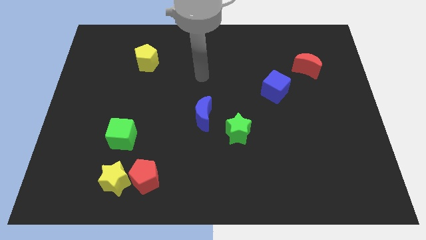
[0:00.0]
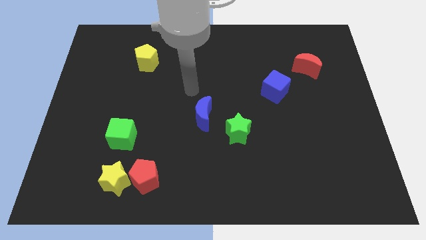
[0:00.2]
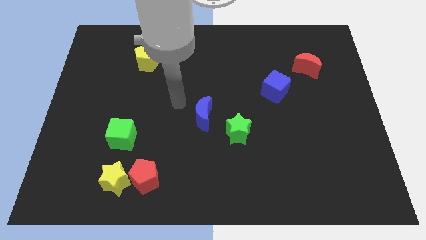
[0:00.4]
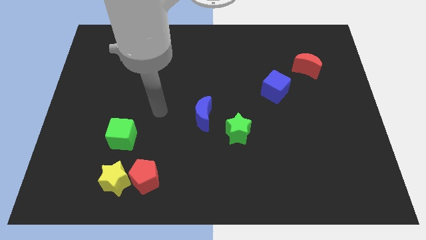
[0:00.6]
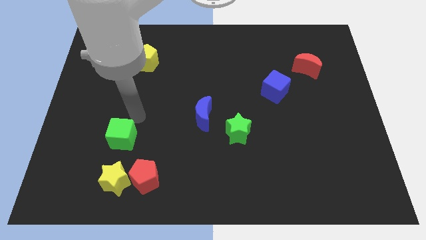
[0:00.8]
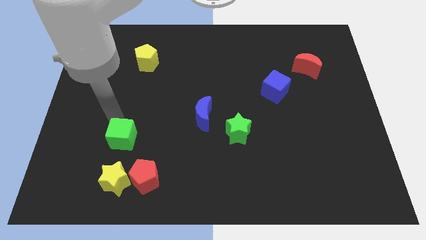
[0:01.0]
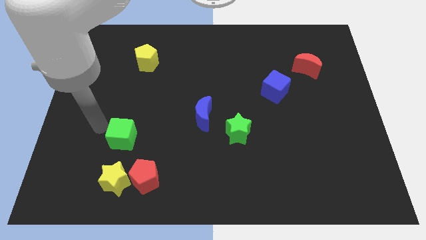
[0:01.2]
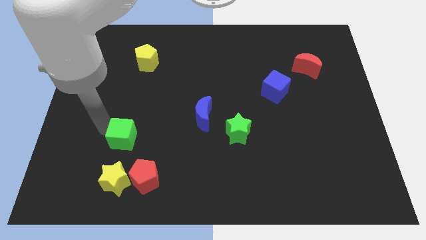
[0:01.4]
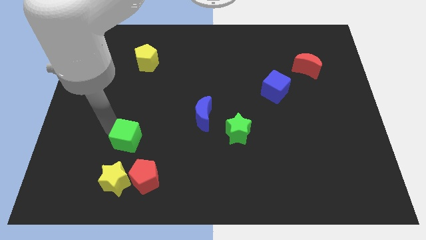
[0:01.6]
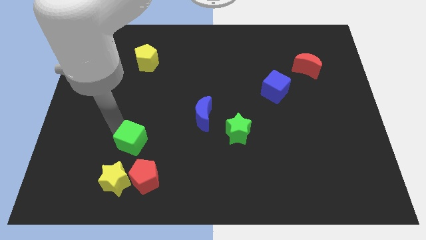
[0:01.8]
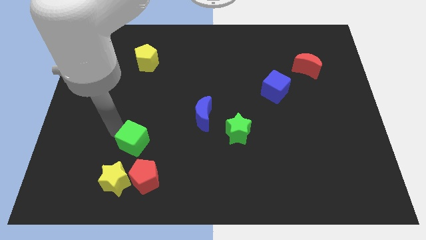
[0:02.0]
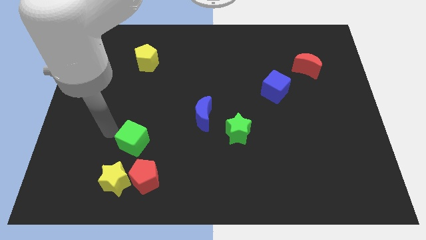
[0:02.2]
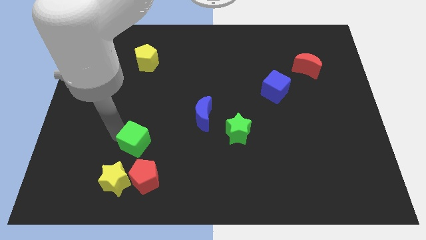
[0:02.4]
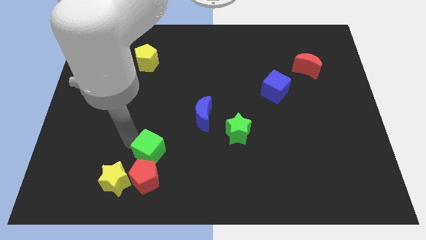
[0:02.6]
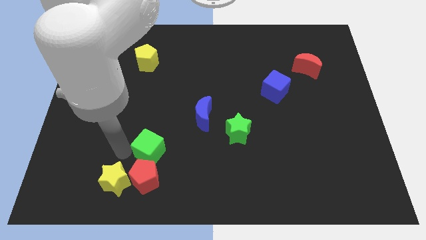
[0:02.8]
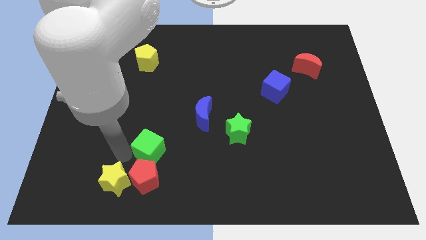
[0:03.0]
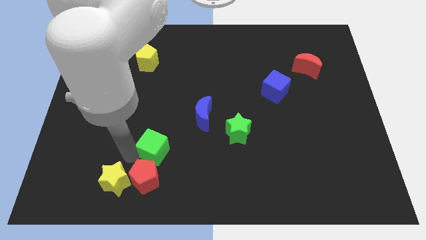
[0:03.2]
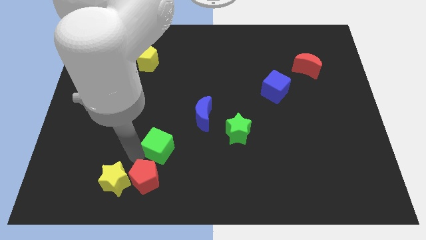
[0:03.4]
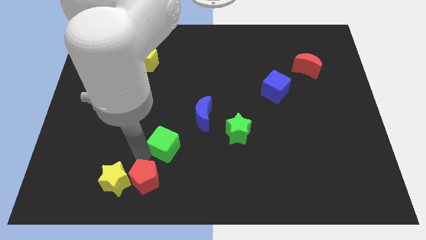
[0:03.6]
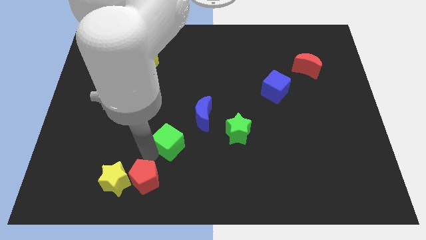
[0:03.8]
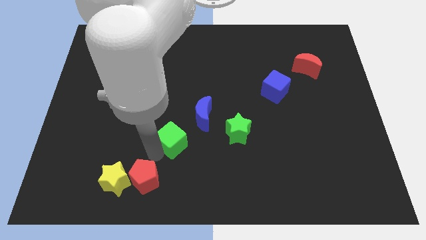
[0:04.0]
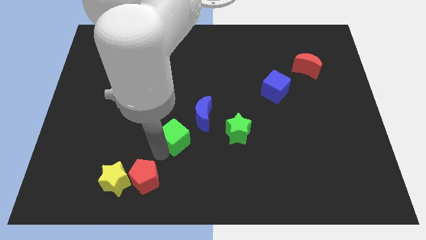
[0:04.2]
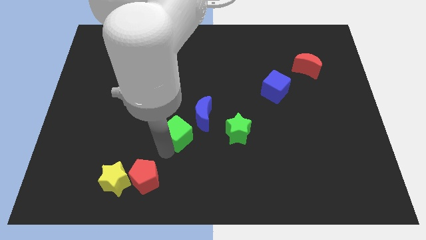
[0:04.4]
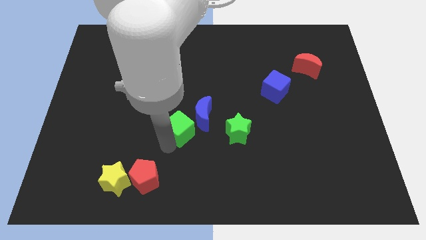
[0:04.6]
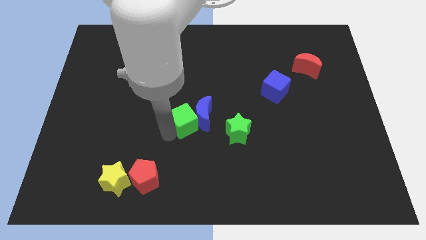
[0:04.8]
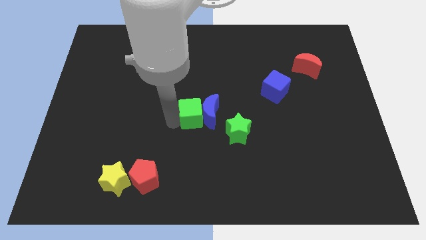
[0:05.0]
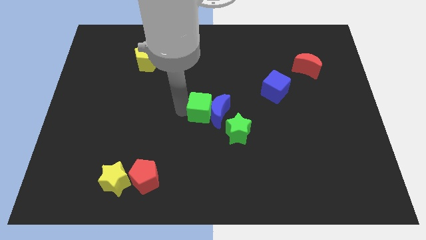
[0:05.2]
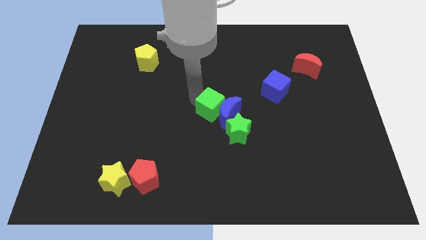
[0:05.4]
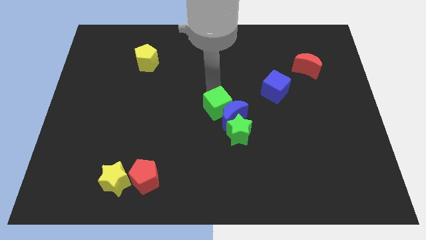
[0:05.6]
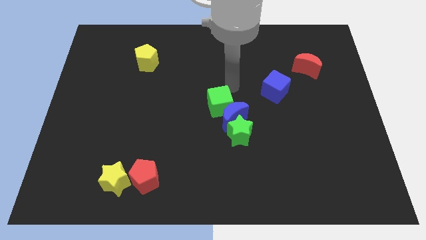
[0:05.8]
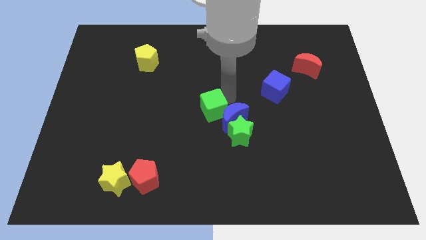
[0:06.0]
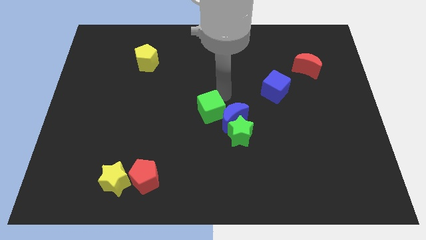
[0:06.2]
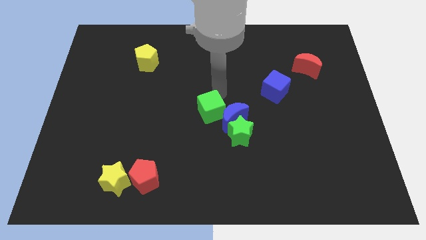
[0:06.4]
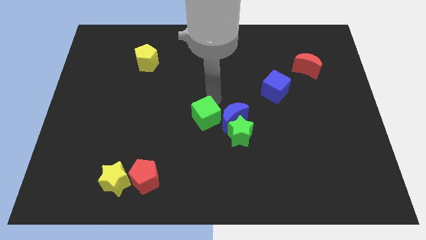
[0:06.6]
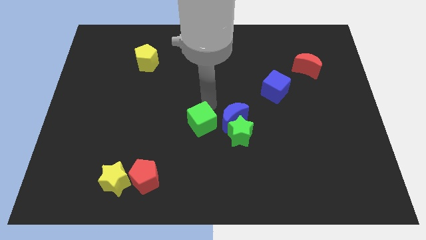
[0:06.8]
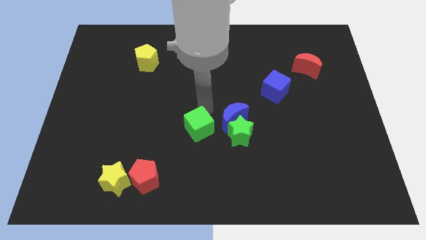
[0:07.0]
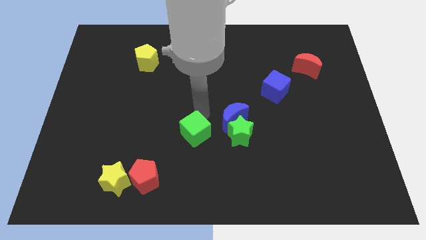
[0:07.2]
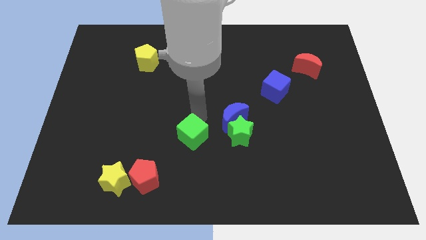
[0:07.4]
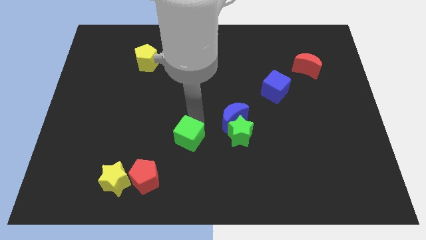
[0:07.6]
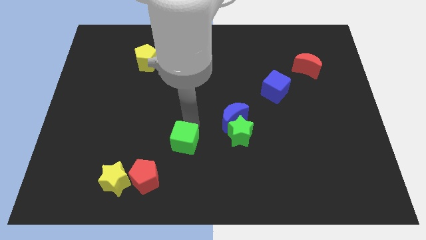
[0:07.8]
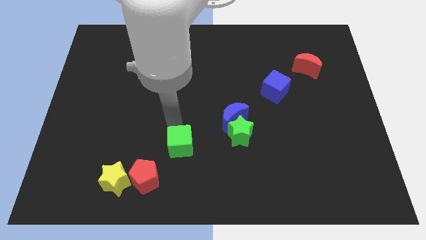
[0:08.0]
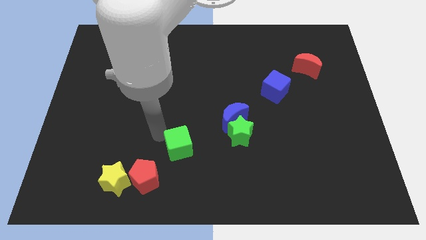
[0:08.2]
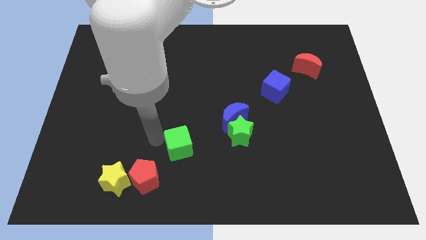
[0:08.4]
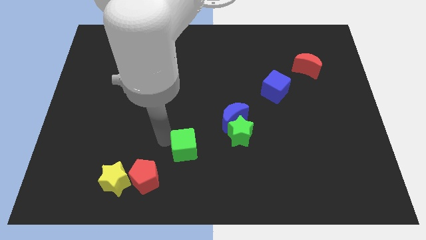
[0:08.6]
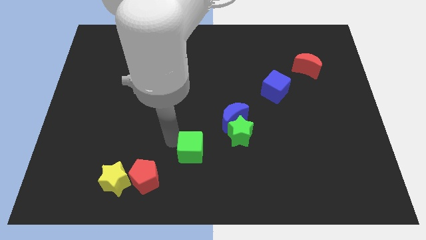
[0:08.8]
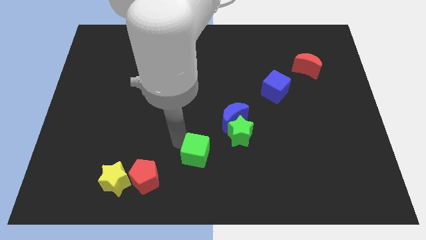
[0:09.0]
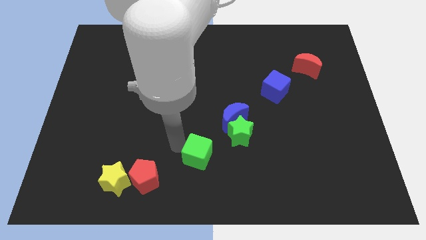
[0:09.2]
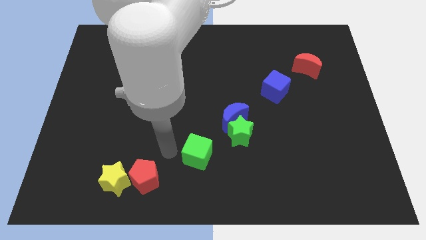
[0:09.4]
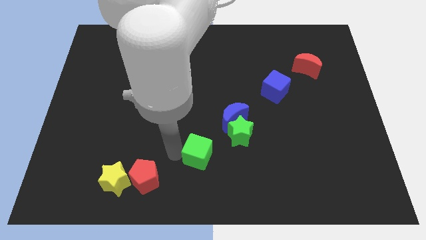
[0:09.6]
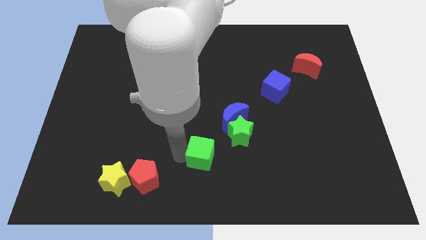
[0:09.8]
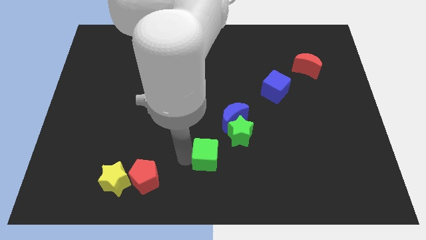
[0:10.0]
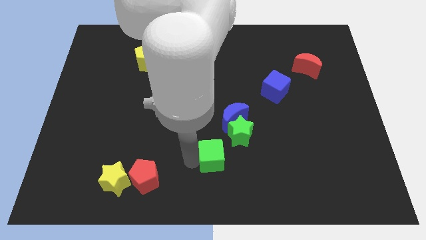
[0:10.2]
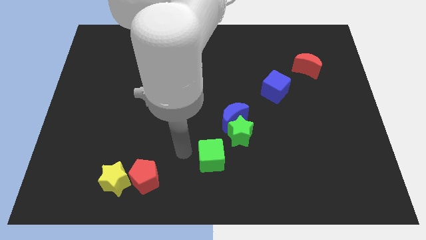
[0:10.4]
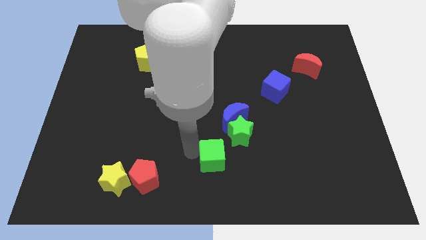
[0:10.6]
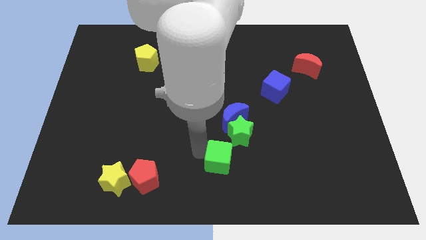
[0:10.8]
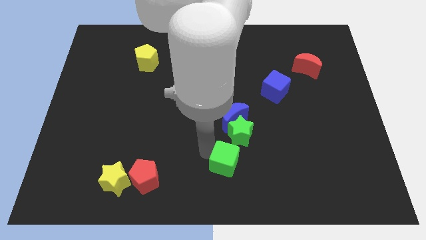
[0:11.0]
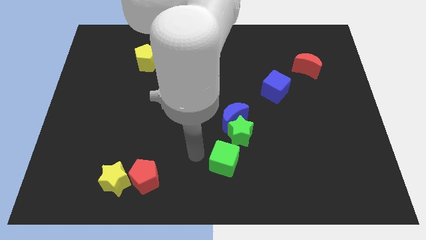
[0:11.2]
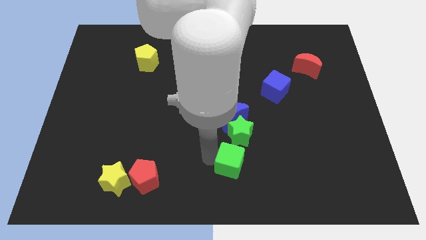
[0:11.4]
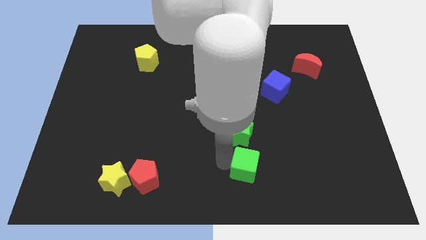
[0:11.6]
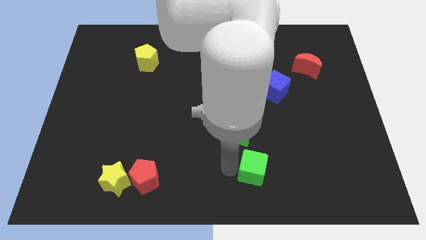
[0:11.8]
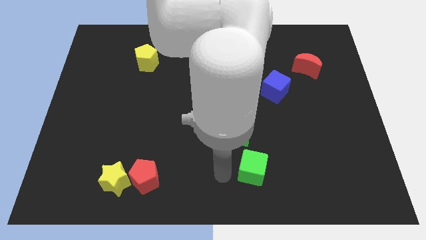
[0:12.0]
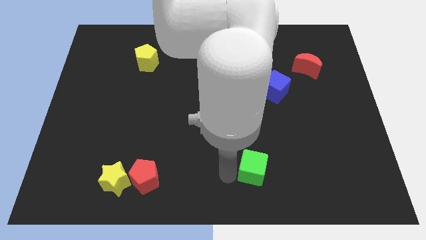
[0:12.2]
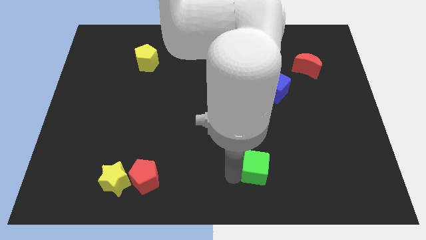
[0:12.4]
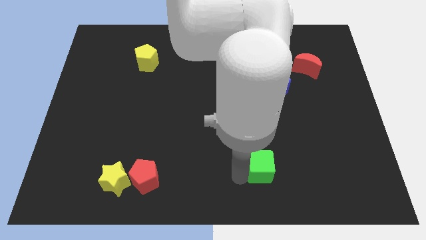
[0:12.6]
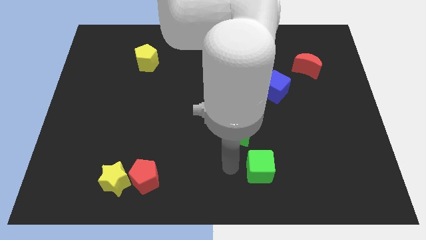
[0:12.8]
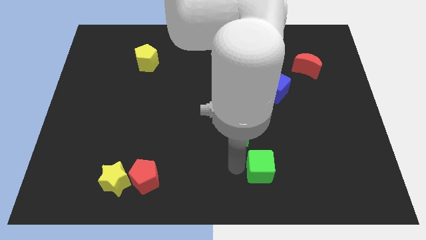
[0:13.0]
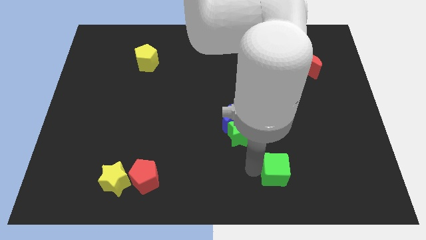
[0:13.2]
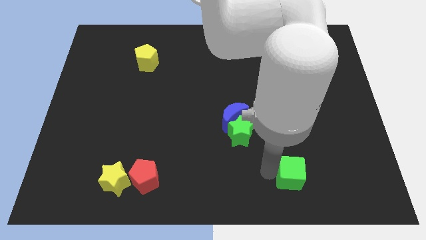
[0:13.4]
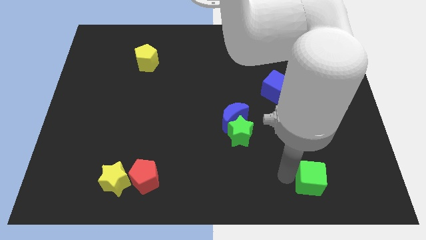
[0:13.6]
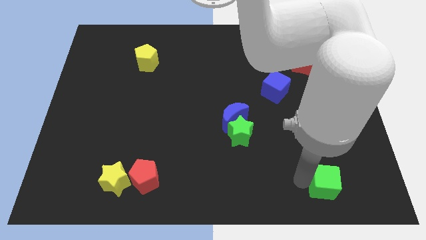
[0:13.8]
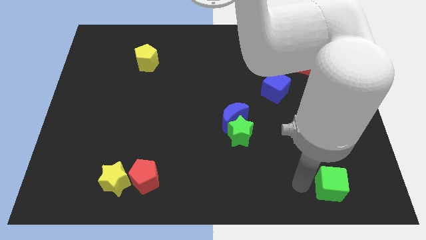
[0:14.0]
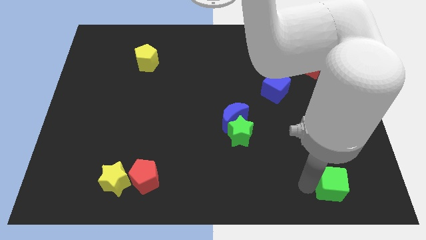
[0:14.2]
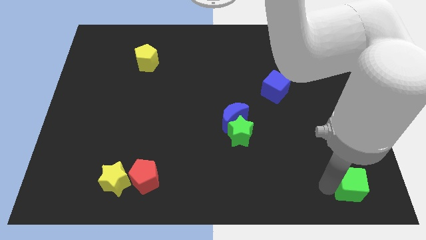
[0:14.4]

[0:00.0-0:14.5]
put the green cube to the bottom right

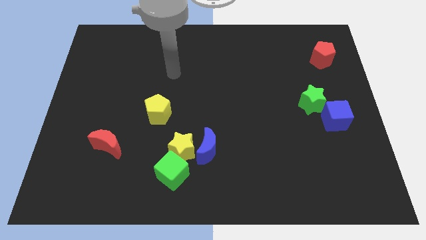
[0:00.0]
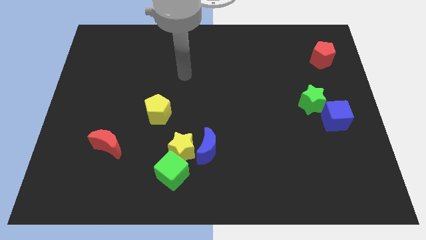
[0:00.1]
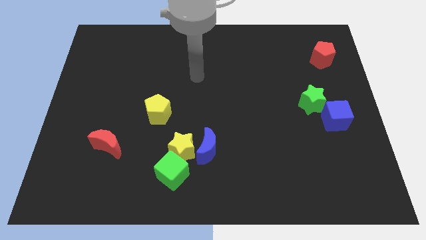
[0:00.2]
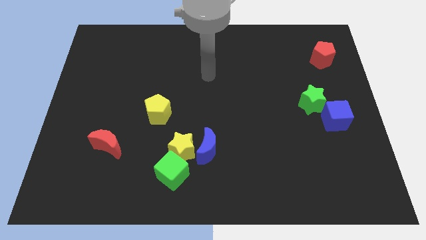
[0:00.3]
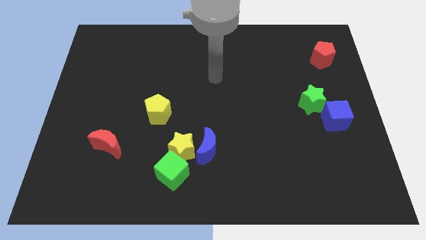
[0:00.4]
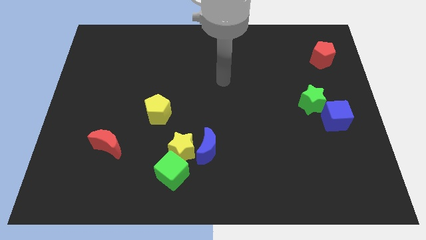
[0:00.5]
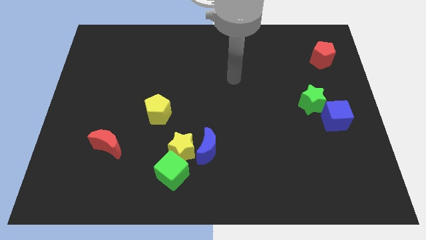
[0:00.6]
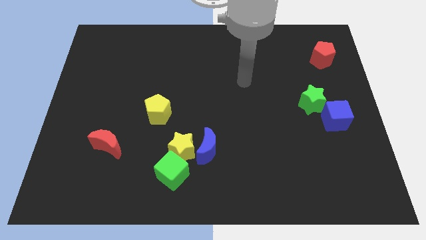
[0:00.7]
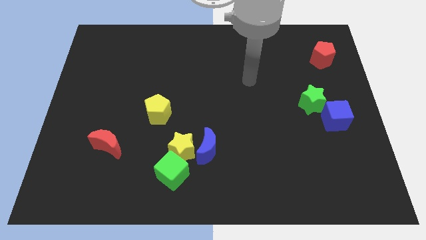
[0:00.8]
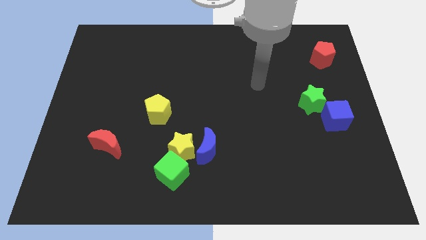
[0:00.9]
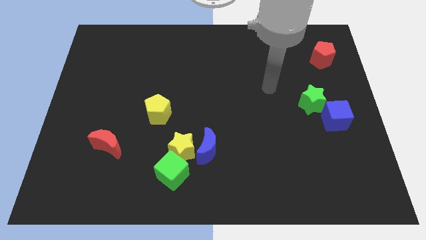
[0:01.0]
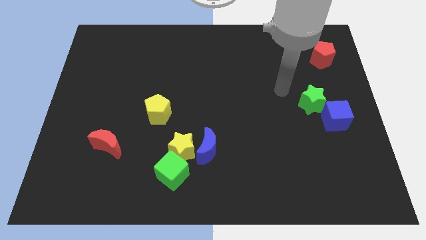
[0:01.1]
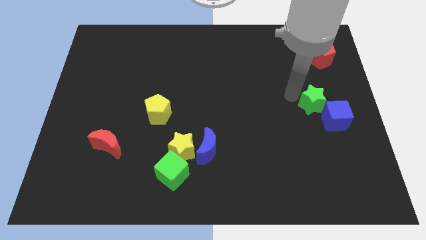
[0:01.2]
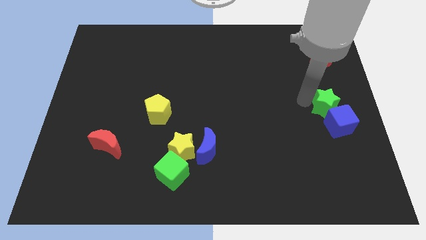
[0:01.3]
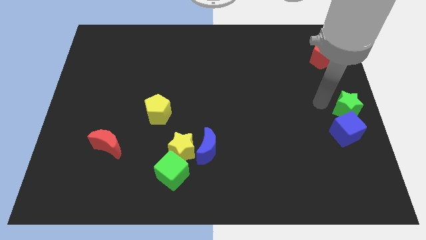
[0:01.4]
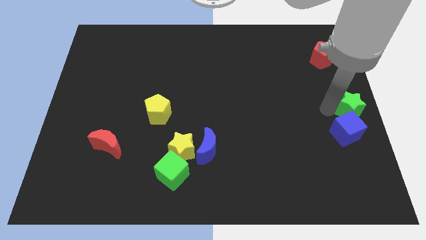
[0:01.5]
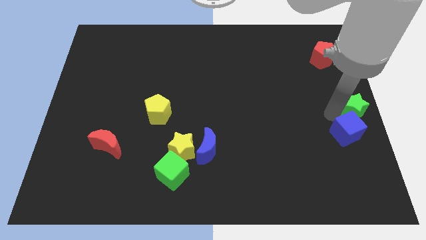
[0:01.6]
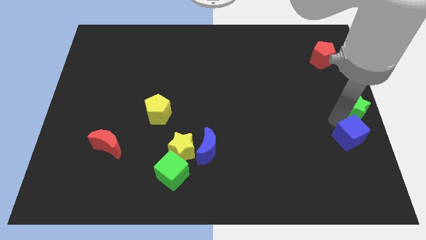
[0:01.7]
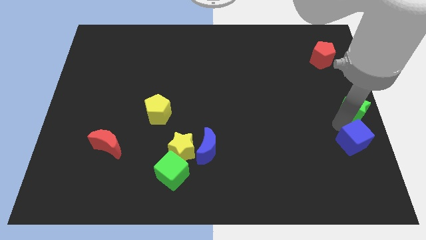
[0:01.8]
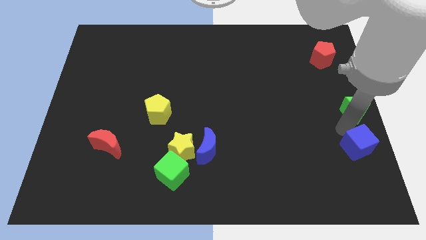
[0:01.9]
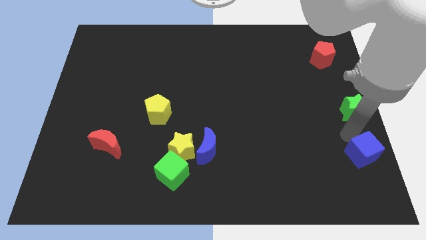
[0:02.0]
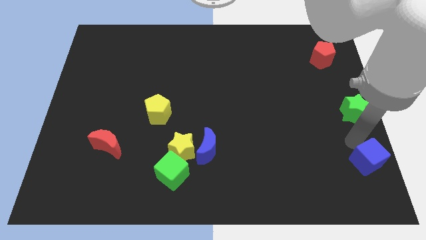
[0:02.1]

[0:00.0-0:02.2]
move the blue cube to the lower right corner
